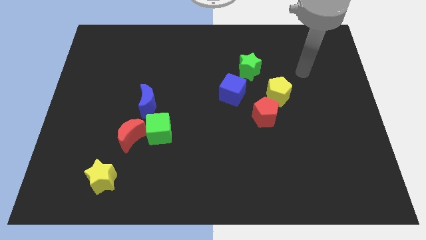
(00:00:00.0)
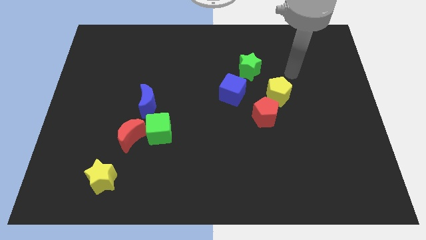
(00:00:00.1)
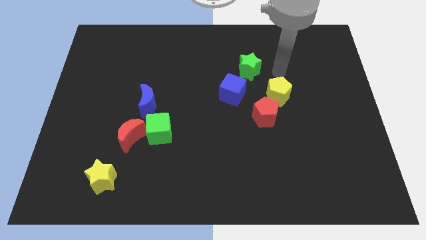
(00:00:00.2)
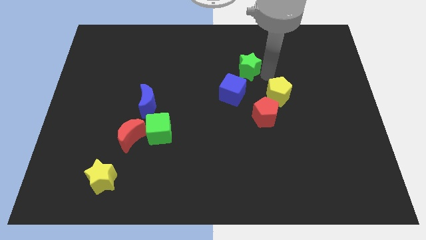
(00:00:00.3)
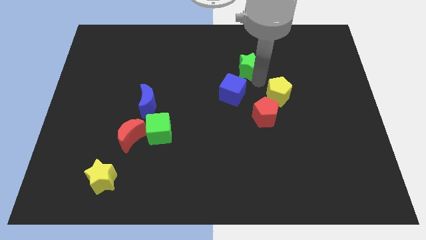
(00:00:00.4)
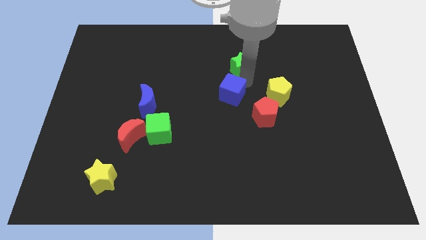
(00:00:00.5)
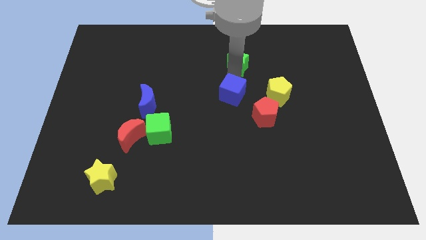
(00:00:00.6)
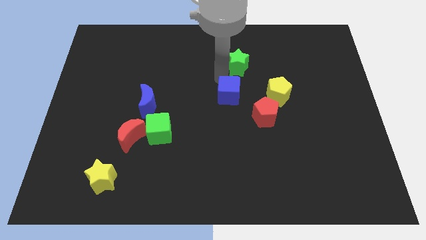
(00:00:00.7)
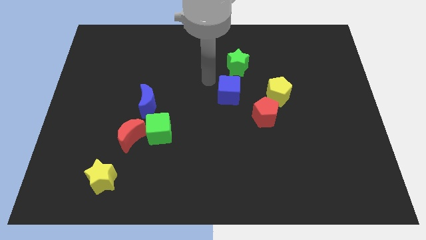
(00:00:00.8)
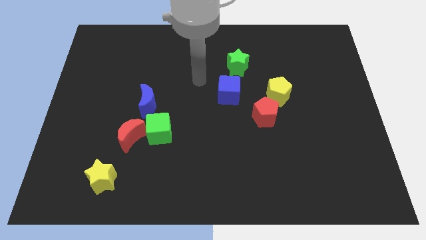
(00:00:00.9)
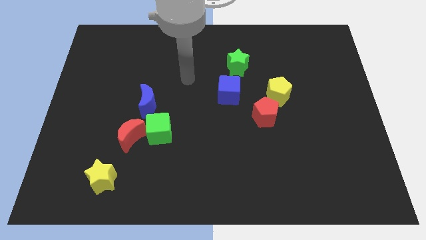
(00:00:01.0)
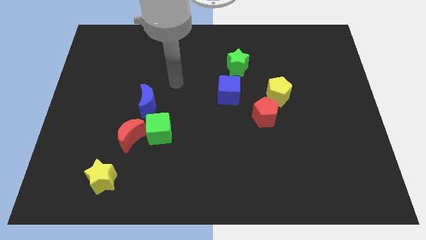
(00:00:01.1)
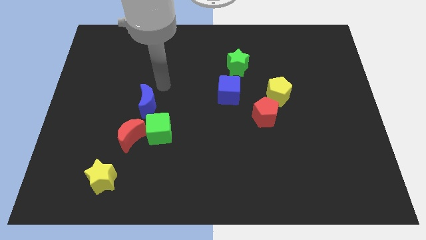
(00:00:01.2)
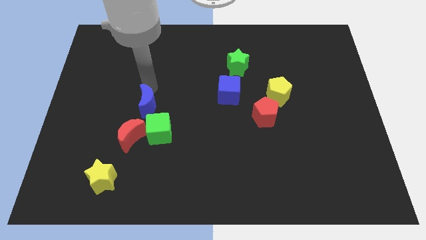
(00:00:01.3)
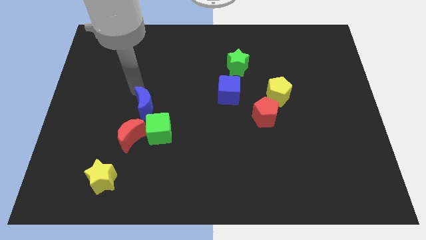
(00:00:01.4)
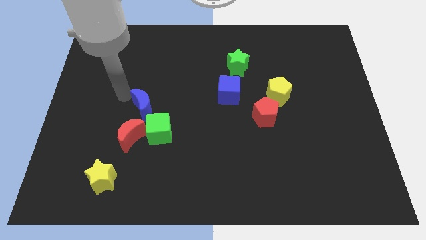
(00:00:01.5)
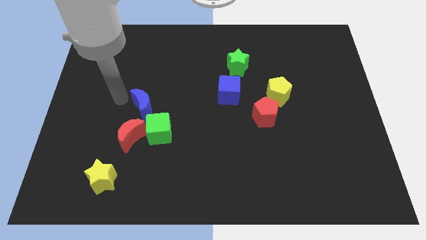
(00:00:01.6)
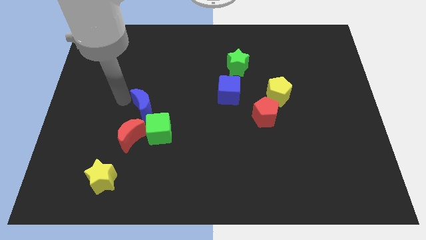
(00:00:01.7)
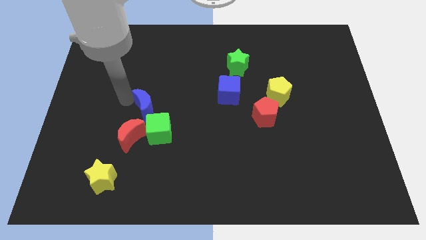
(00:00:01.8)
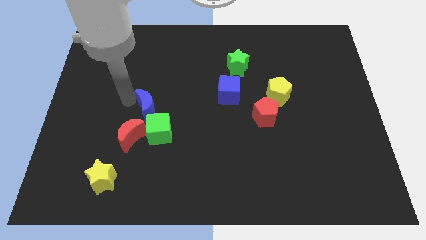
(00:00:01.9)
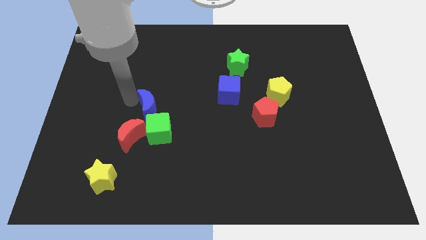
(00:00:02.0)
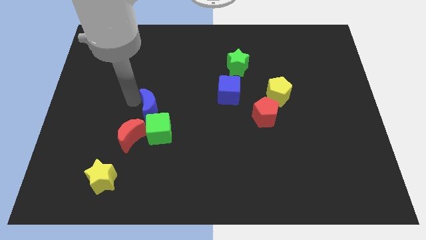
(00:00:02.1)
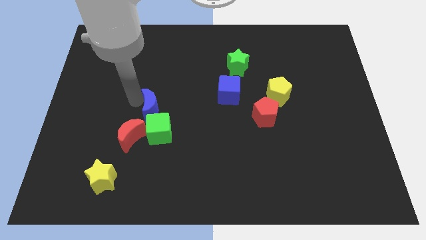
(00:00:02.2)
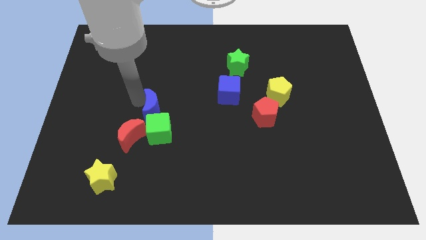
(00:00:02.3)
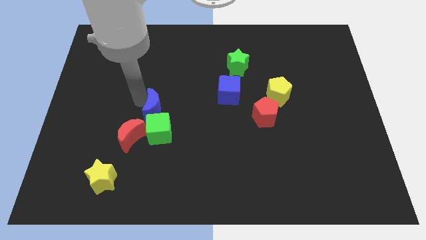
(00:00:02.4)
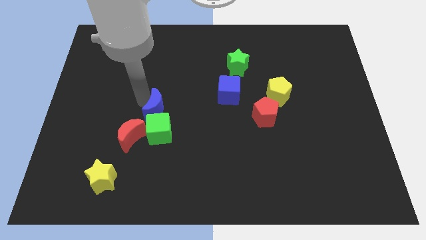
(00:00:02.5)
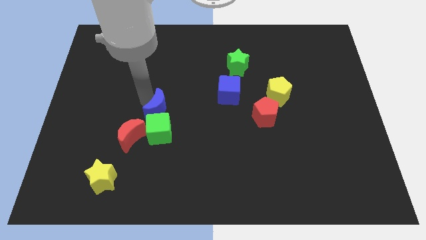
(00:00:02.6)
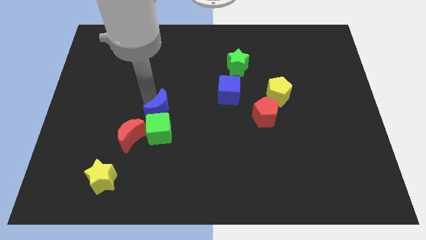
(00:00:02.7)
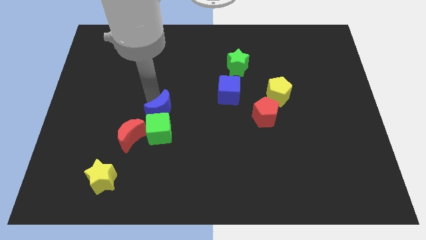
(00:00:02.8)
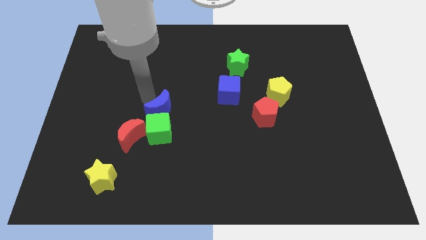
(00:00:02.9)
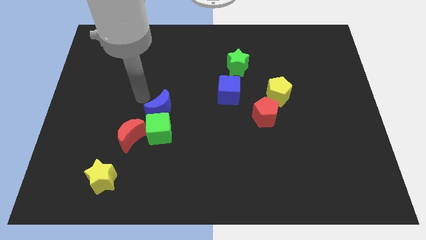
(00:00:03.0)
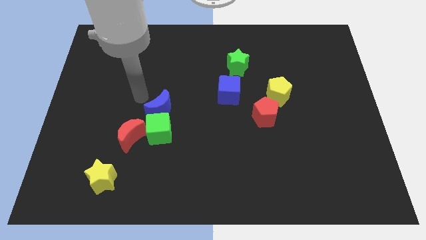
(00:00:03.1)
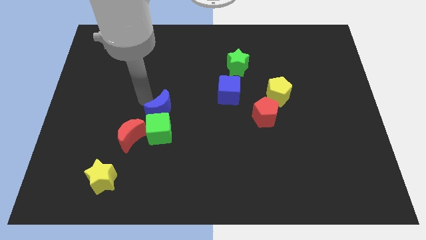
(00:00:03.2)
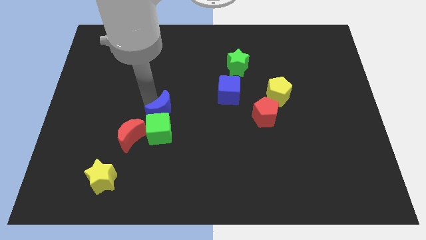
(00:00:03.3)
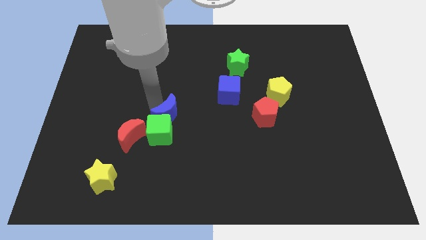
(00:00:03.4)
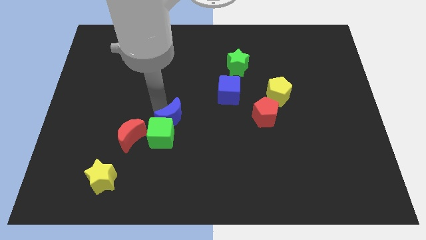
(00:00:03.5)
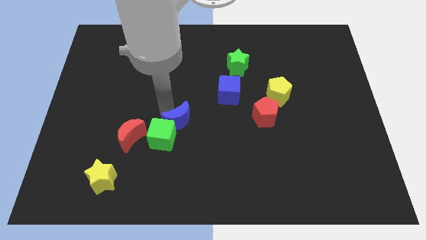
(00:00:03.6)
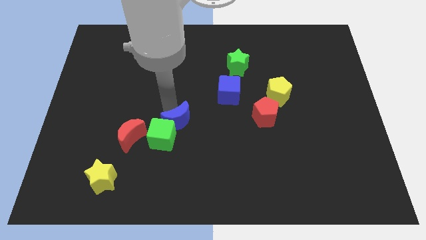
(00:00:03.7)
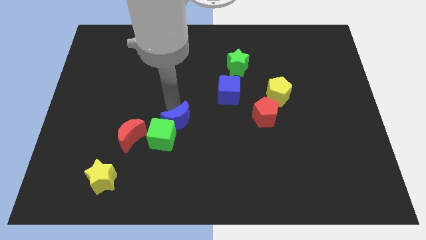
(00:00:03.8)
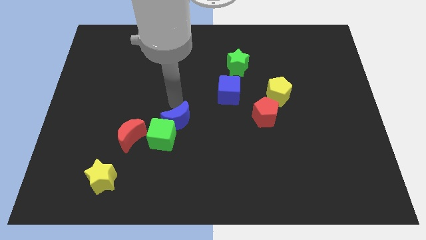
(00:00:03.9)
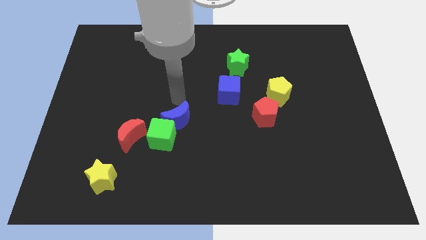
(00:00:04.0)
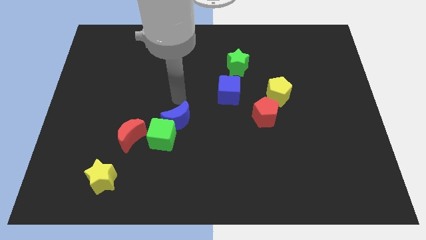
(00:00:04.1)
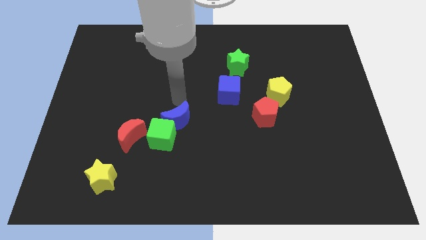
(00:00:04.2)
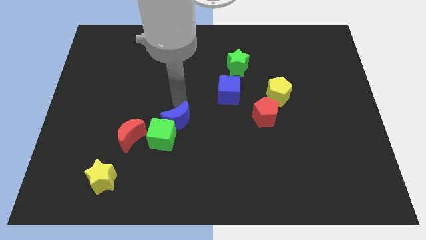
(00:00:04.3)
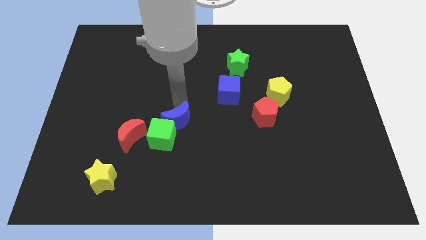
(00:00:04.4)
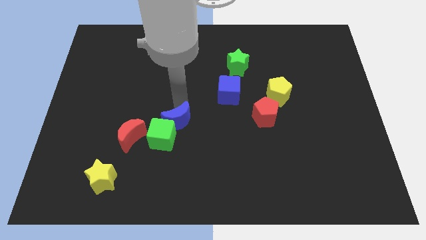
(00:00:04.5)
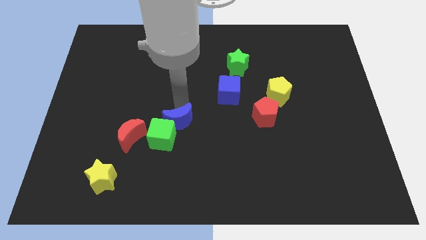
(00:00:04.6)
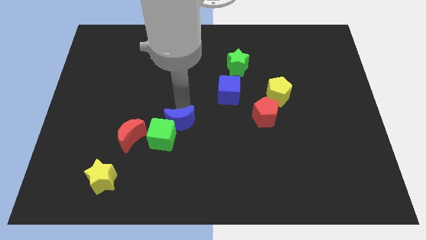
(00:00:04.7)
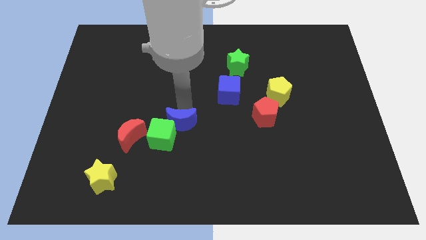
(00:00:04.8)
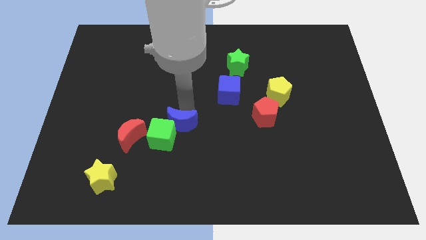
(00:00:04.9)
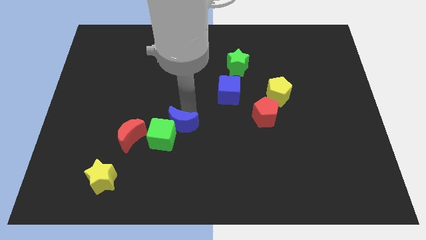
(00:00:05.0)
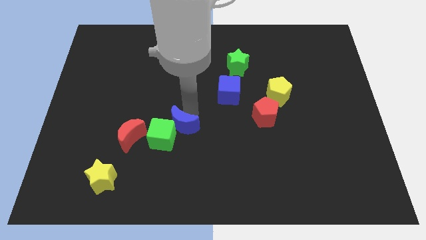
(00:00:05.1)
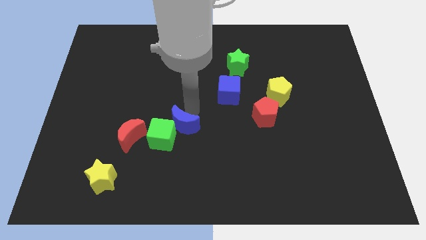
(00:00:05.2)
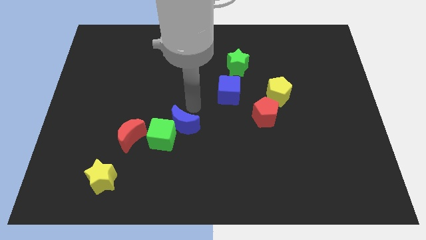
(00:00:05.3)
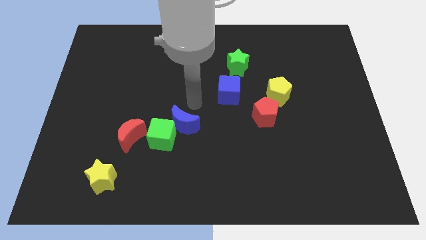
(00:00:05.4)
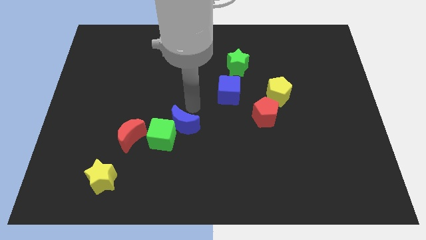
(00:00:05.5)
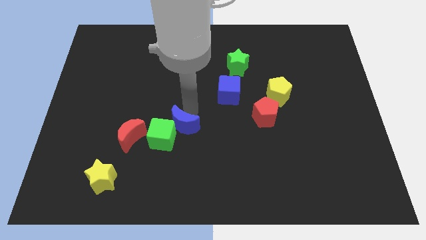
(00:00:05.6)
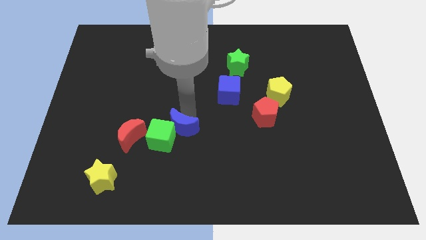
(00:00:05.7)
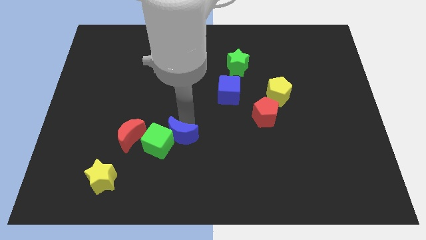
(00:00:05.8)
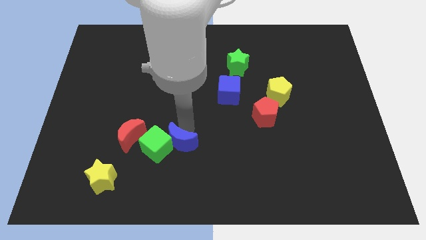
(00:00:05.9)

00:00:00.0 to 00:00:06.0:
slide the blue moon down somewhat

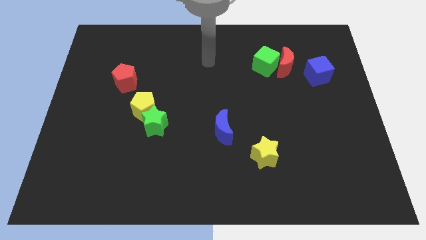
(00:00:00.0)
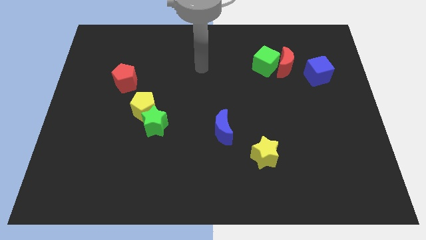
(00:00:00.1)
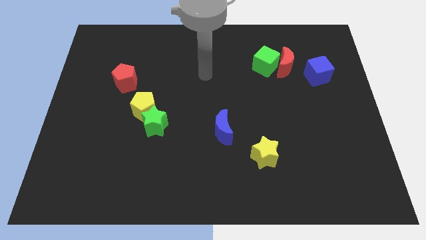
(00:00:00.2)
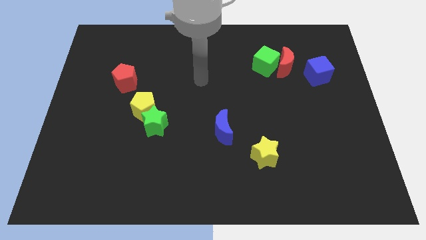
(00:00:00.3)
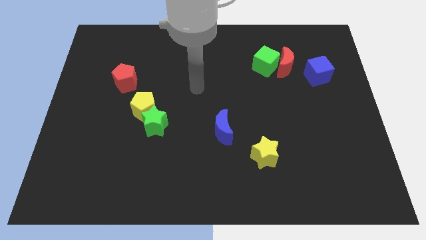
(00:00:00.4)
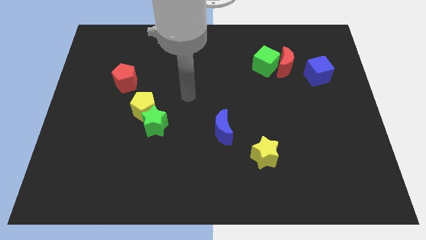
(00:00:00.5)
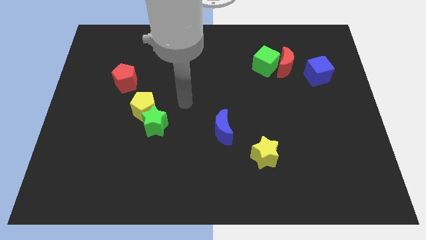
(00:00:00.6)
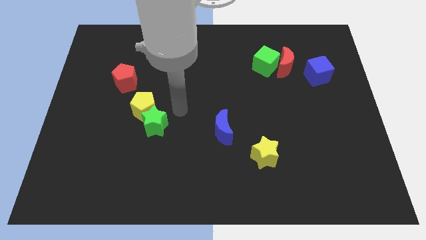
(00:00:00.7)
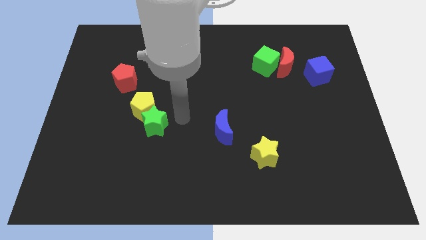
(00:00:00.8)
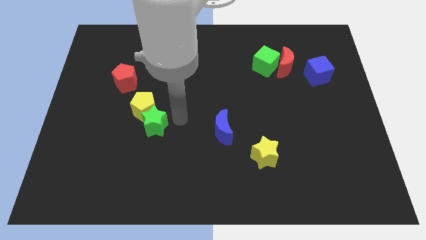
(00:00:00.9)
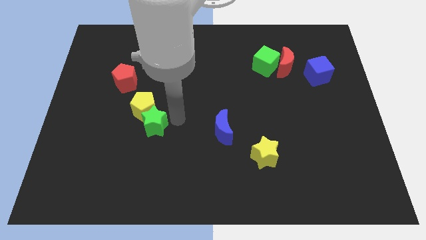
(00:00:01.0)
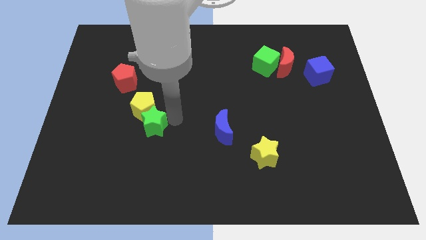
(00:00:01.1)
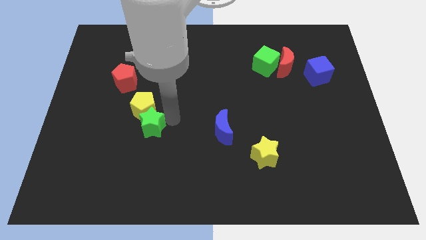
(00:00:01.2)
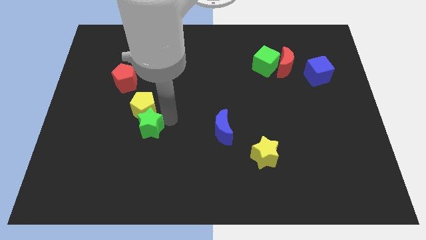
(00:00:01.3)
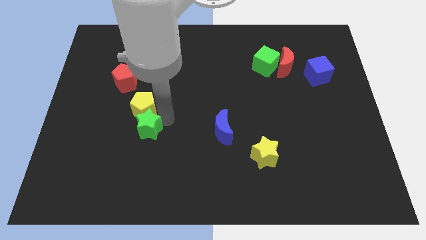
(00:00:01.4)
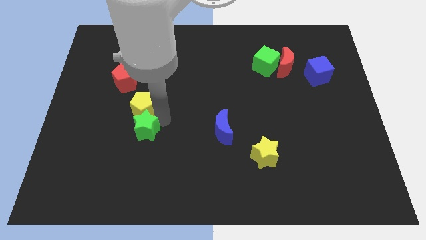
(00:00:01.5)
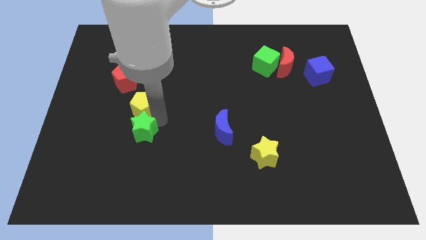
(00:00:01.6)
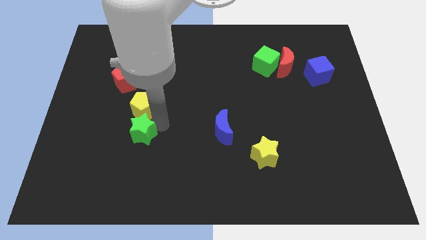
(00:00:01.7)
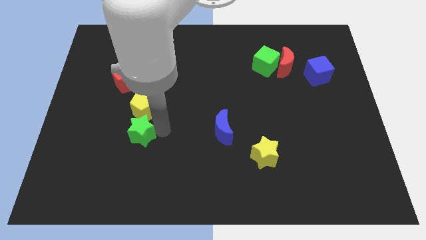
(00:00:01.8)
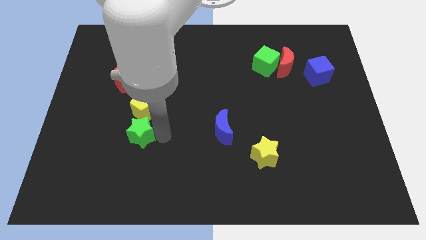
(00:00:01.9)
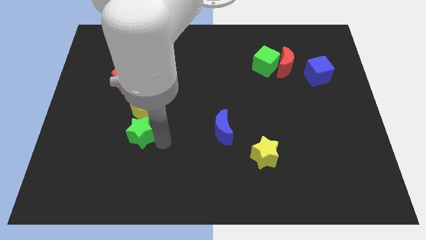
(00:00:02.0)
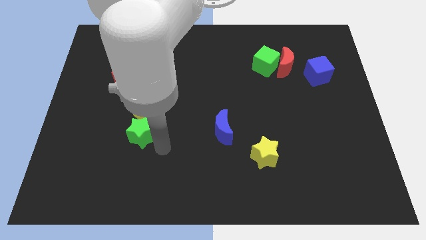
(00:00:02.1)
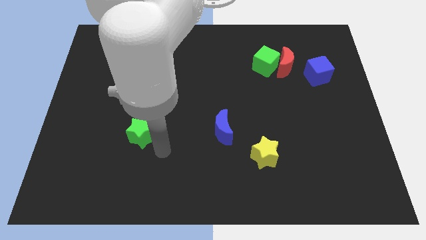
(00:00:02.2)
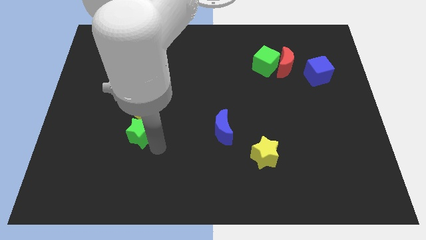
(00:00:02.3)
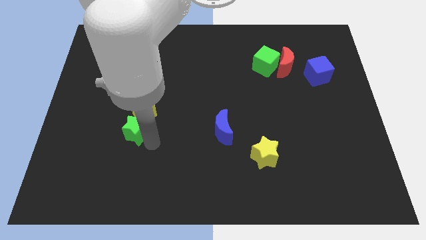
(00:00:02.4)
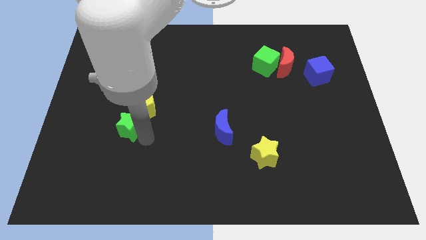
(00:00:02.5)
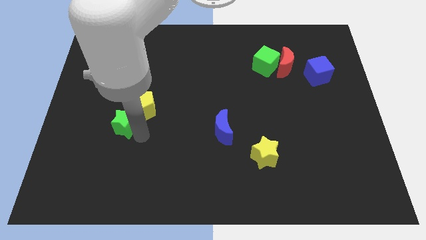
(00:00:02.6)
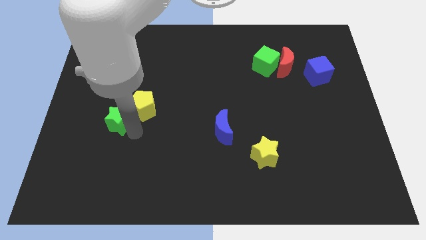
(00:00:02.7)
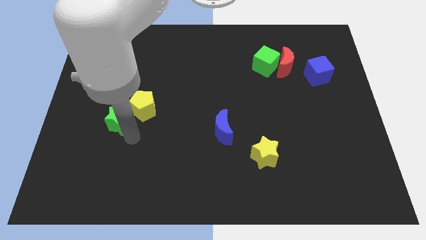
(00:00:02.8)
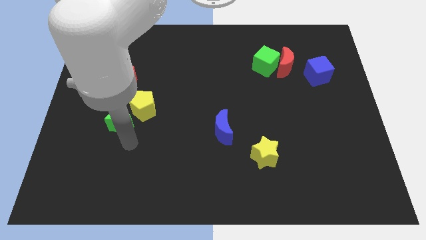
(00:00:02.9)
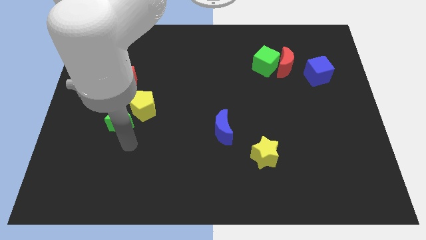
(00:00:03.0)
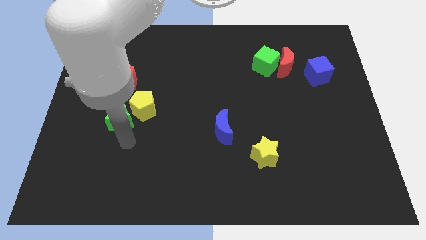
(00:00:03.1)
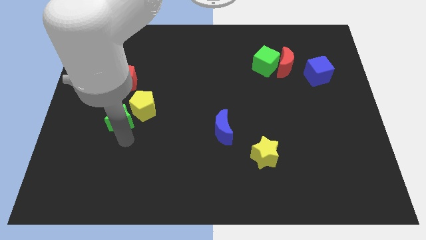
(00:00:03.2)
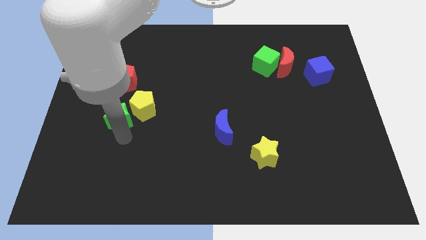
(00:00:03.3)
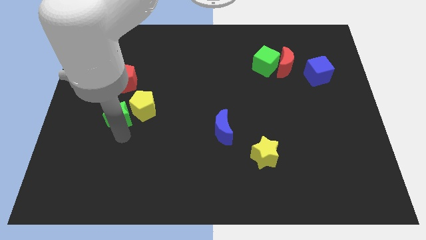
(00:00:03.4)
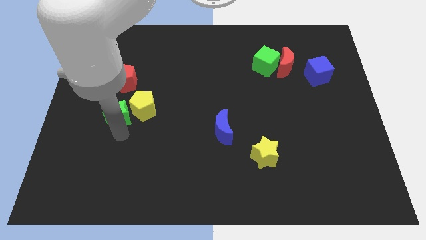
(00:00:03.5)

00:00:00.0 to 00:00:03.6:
slightly move the green star upwards and left
